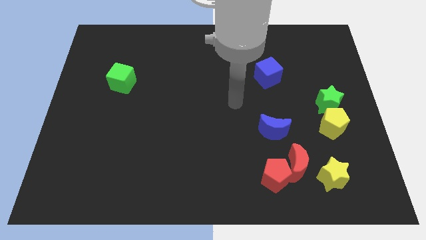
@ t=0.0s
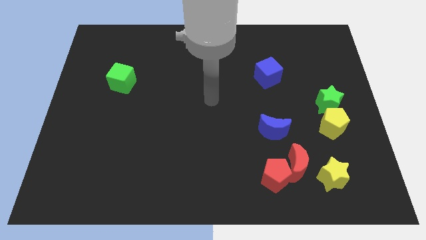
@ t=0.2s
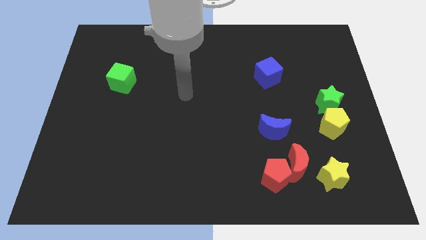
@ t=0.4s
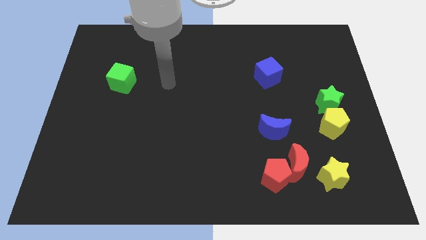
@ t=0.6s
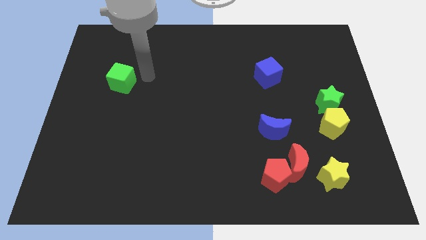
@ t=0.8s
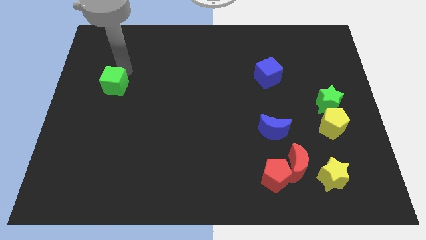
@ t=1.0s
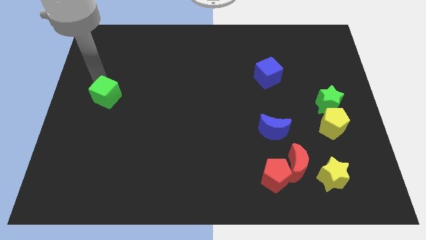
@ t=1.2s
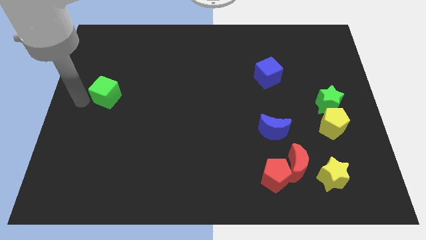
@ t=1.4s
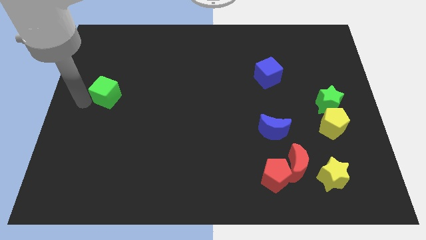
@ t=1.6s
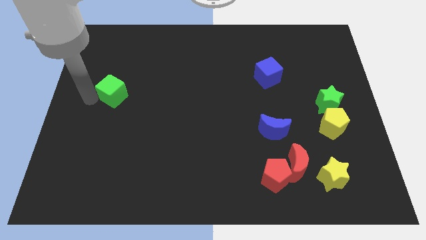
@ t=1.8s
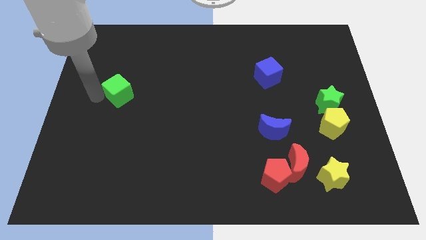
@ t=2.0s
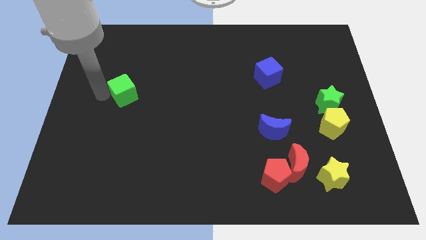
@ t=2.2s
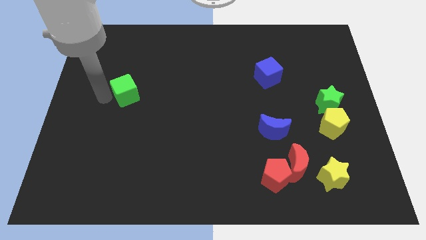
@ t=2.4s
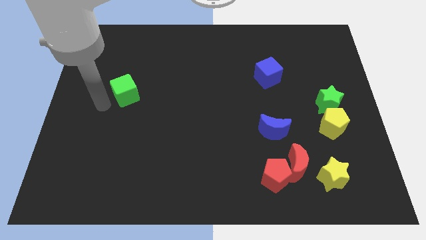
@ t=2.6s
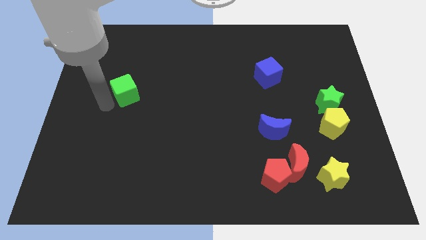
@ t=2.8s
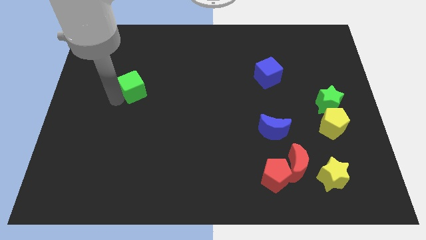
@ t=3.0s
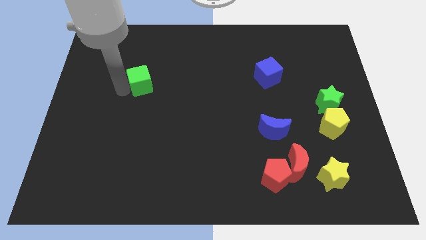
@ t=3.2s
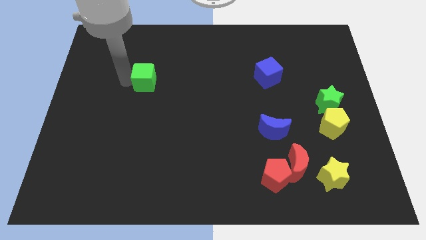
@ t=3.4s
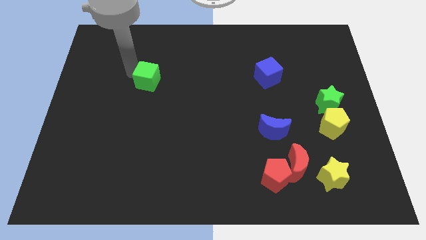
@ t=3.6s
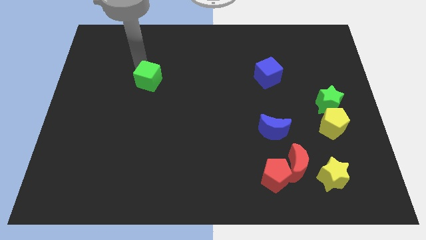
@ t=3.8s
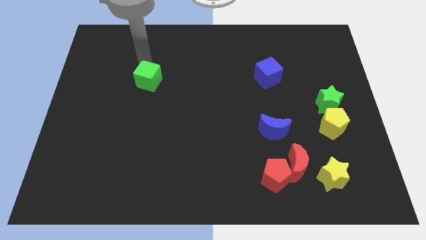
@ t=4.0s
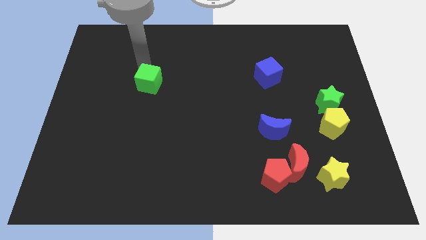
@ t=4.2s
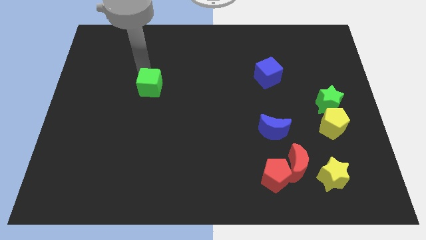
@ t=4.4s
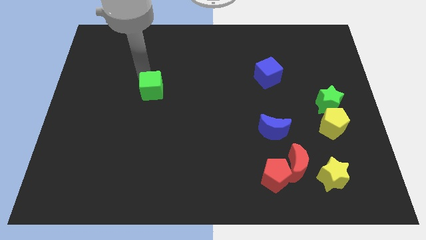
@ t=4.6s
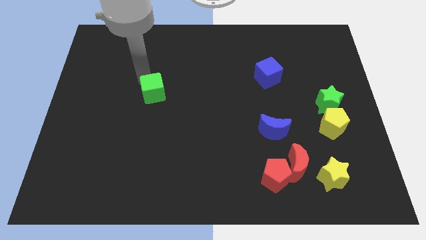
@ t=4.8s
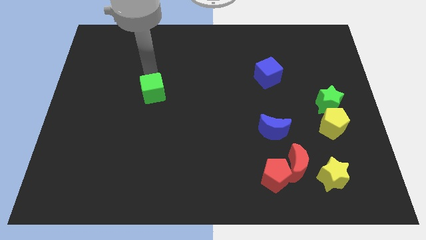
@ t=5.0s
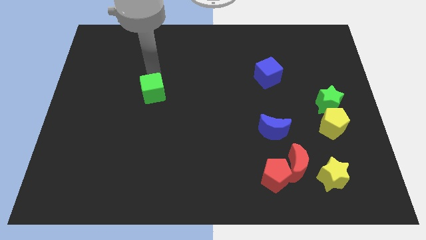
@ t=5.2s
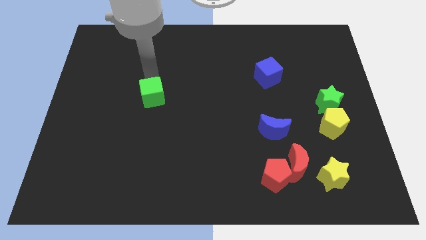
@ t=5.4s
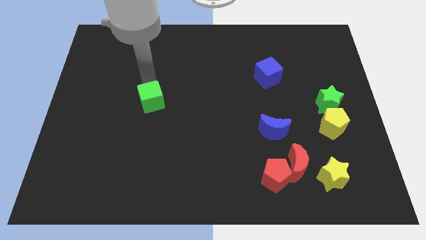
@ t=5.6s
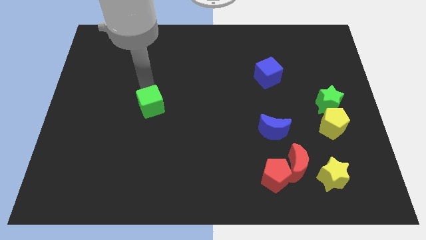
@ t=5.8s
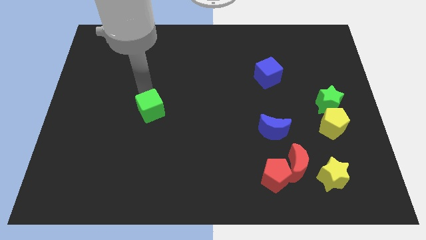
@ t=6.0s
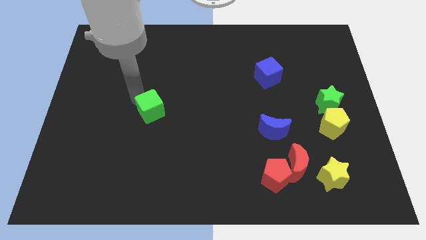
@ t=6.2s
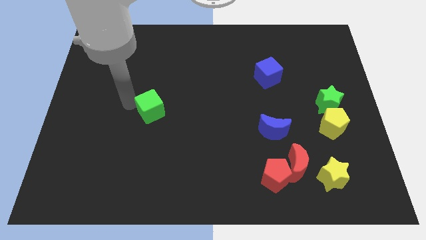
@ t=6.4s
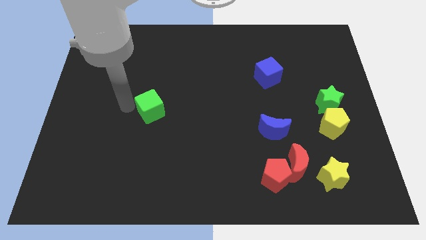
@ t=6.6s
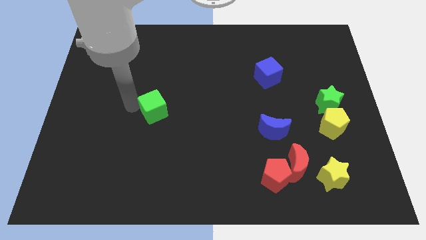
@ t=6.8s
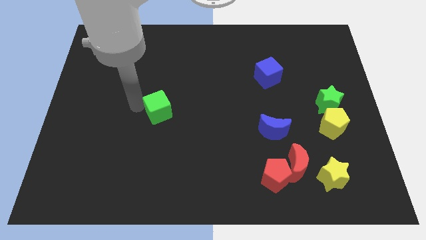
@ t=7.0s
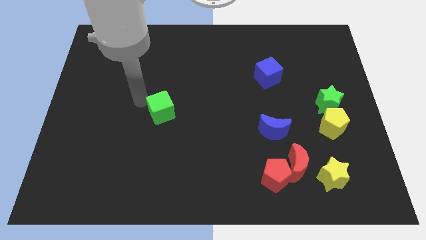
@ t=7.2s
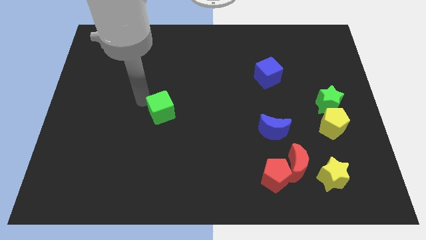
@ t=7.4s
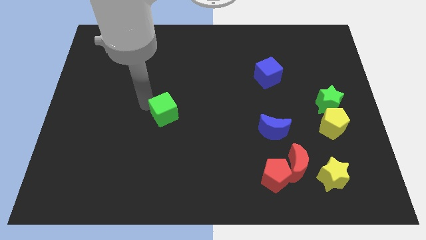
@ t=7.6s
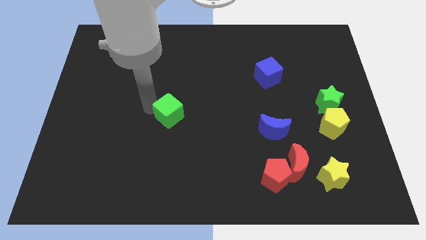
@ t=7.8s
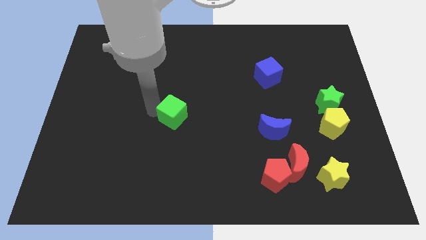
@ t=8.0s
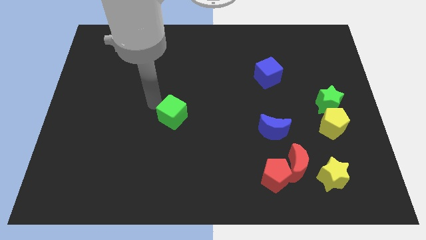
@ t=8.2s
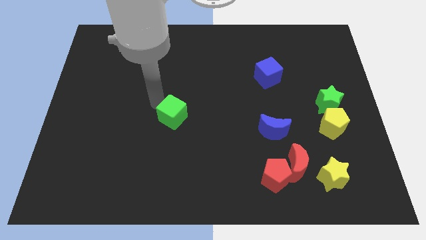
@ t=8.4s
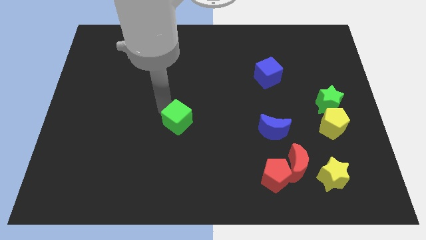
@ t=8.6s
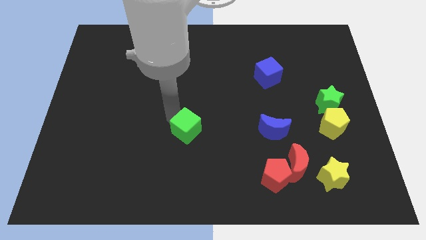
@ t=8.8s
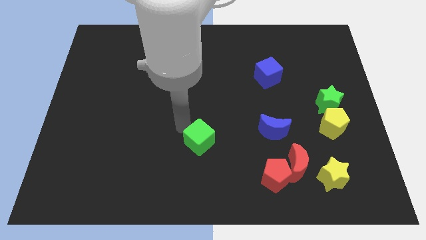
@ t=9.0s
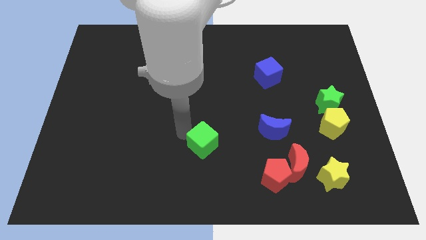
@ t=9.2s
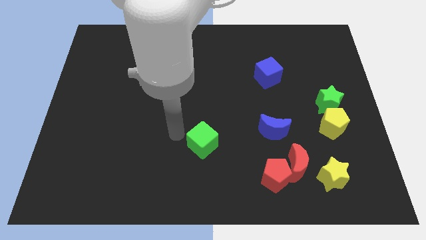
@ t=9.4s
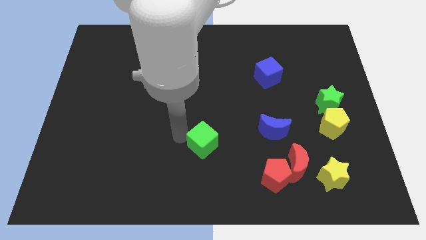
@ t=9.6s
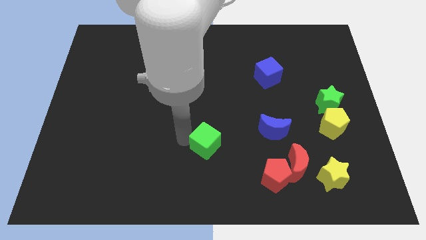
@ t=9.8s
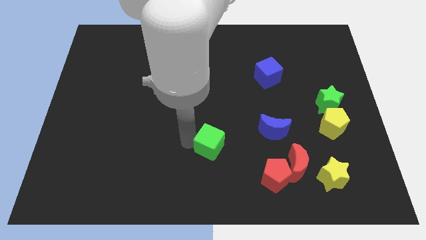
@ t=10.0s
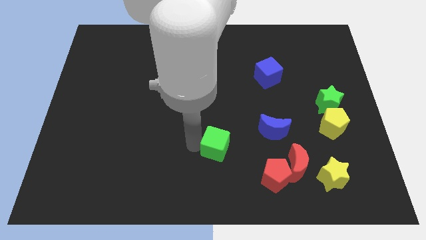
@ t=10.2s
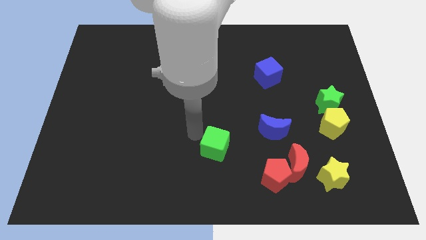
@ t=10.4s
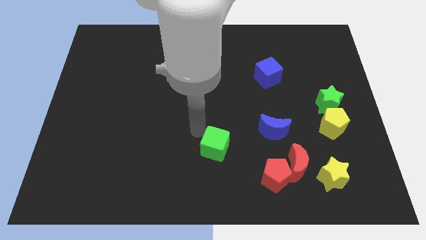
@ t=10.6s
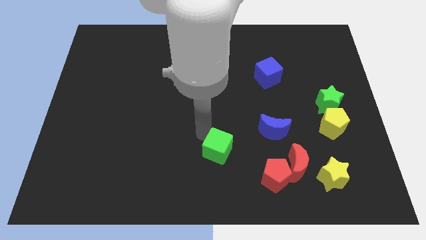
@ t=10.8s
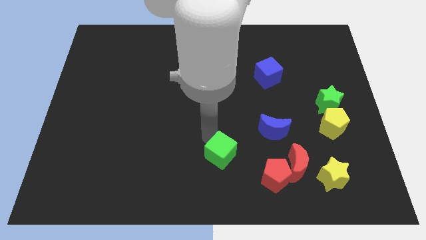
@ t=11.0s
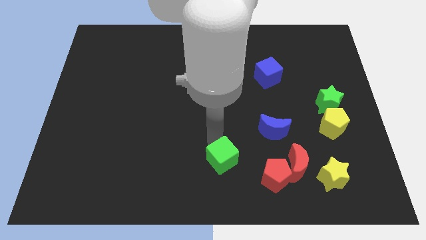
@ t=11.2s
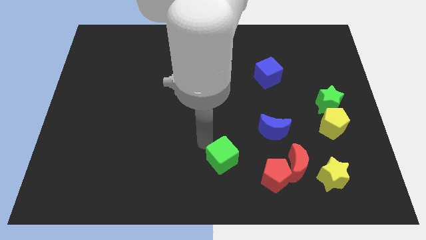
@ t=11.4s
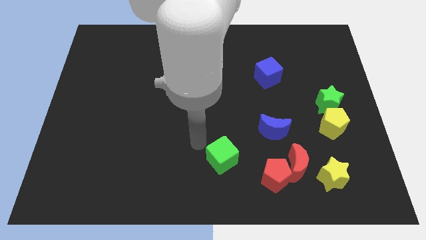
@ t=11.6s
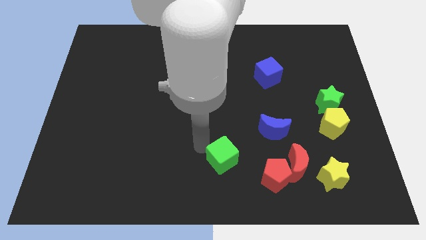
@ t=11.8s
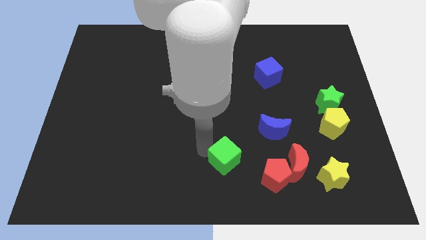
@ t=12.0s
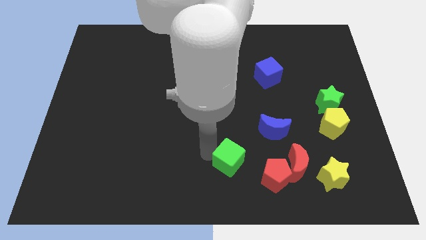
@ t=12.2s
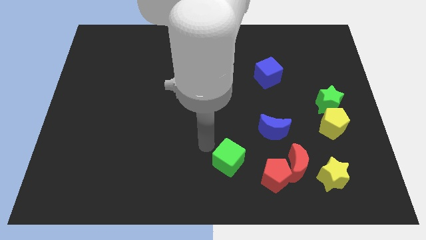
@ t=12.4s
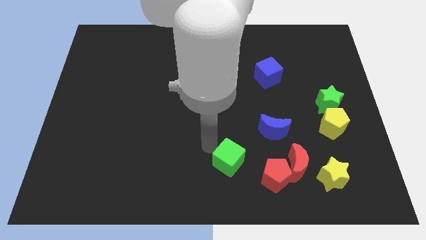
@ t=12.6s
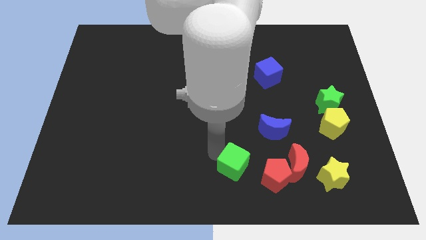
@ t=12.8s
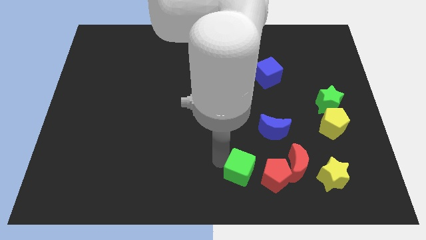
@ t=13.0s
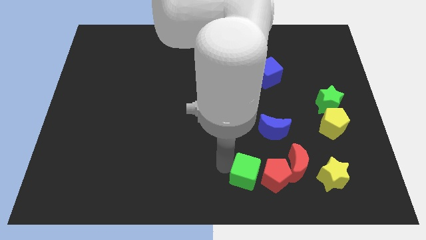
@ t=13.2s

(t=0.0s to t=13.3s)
put the green cube next to the red pentagon
